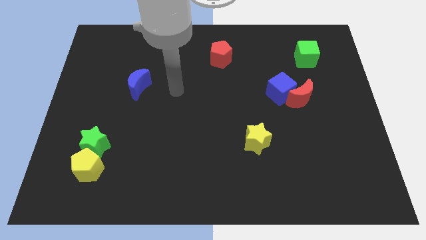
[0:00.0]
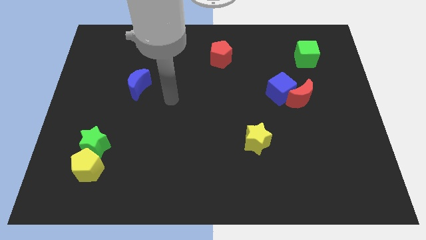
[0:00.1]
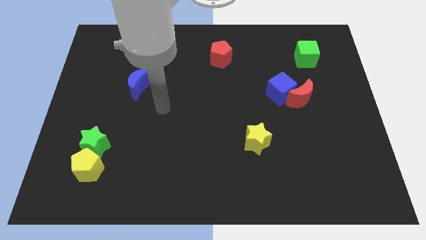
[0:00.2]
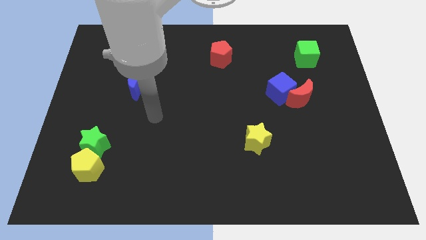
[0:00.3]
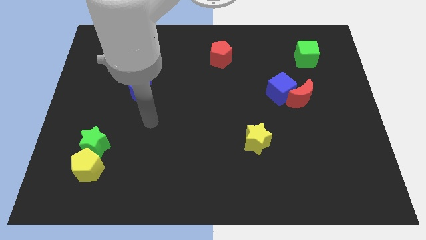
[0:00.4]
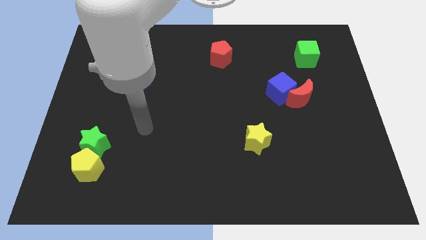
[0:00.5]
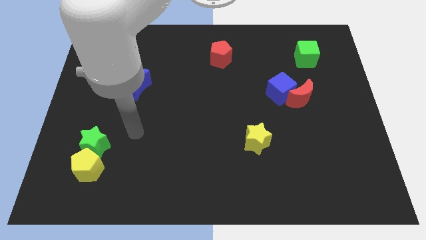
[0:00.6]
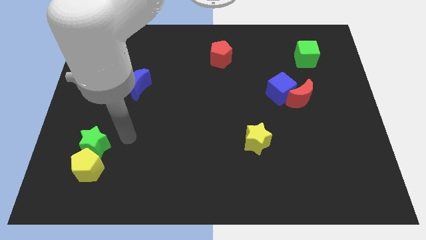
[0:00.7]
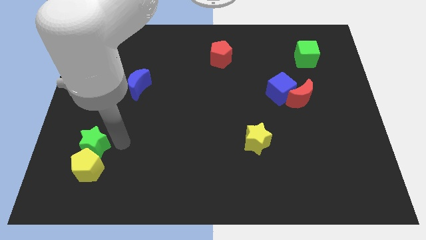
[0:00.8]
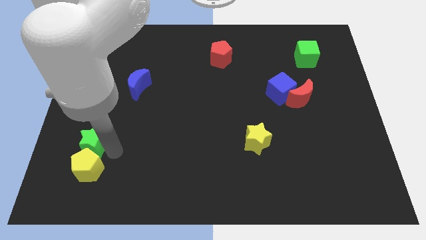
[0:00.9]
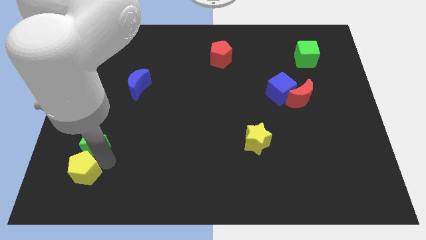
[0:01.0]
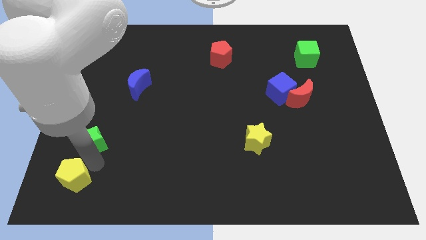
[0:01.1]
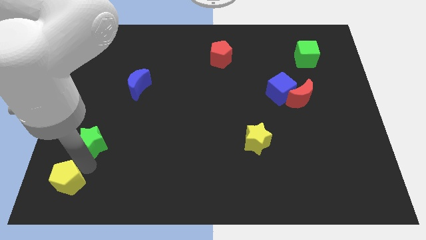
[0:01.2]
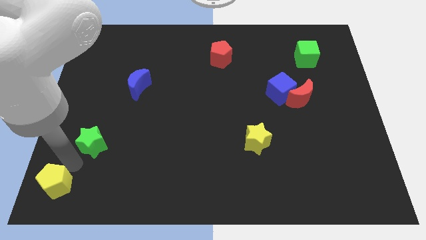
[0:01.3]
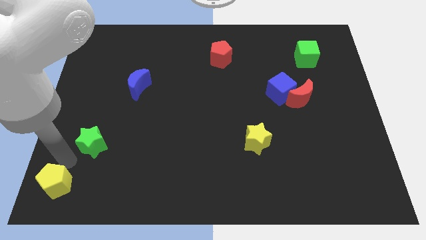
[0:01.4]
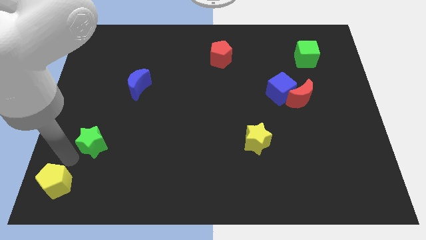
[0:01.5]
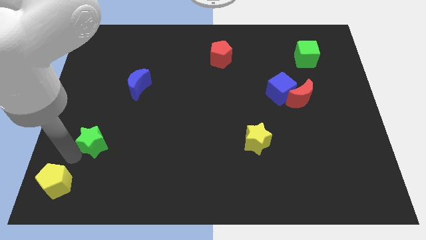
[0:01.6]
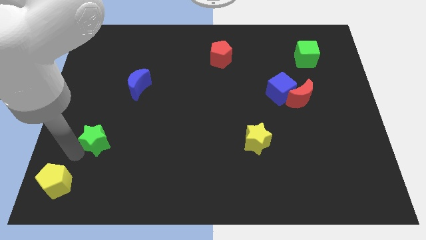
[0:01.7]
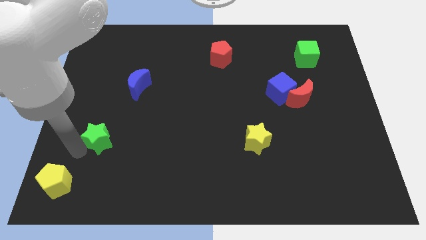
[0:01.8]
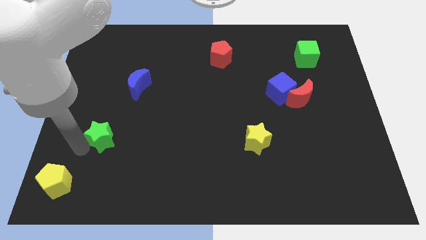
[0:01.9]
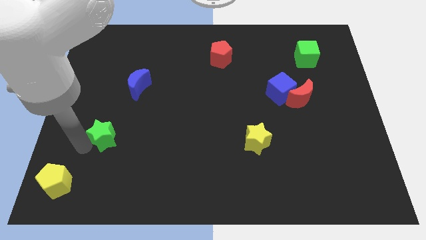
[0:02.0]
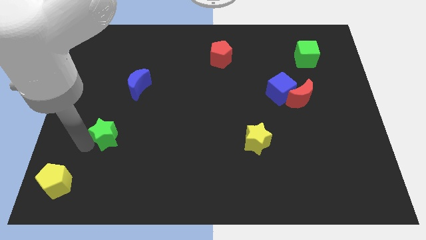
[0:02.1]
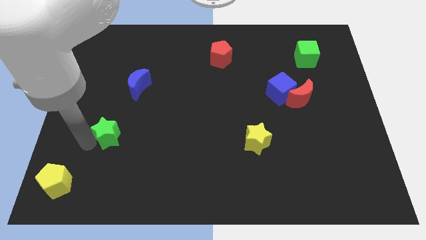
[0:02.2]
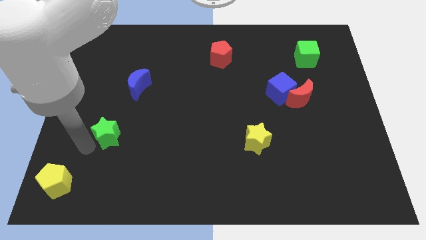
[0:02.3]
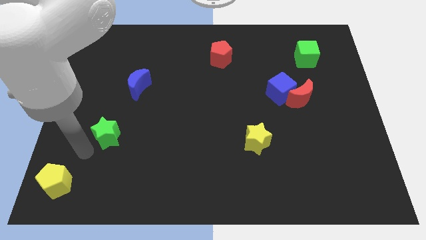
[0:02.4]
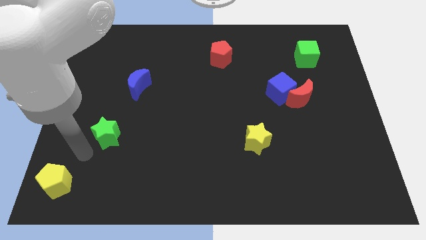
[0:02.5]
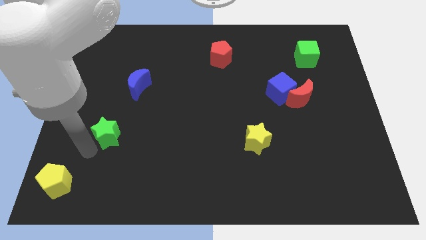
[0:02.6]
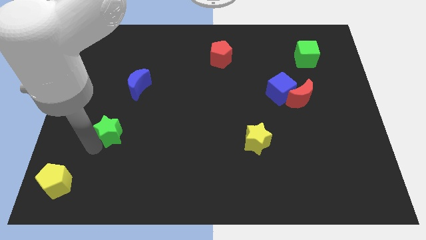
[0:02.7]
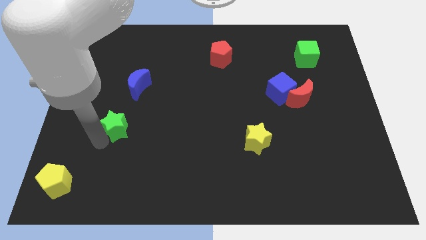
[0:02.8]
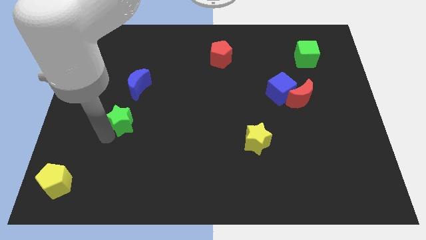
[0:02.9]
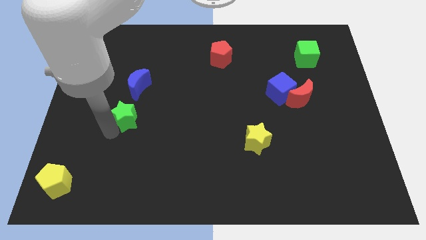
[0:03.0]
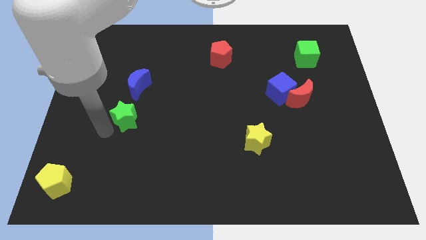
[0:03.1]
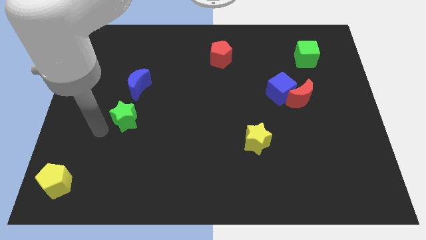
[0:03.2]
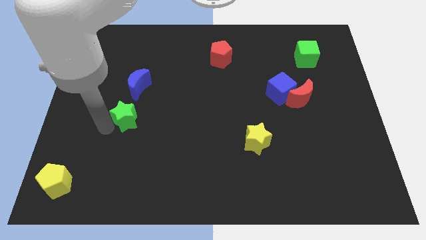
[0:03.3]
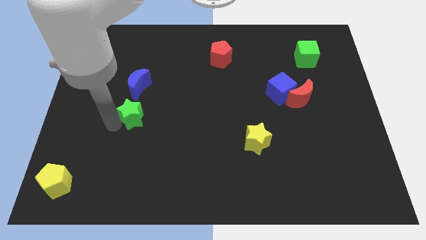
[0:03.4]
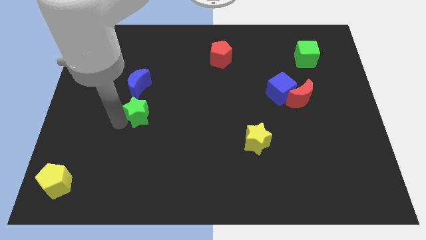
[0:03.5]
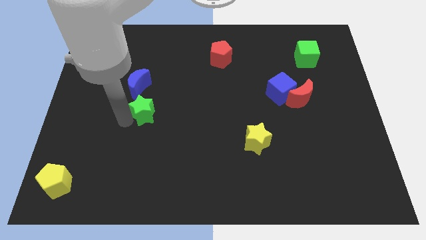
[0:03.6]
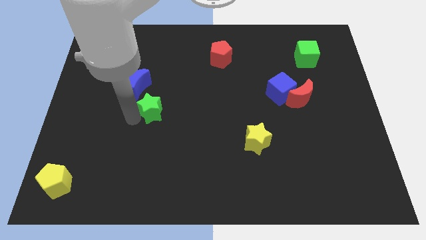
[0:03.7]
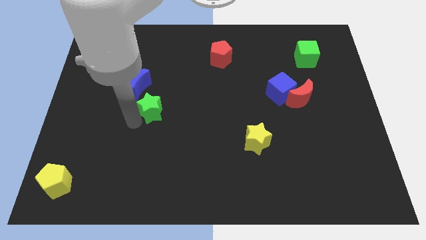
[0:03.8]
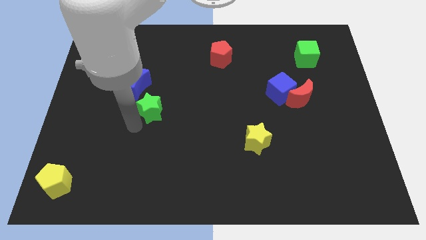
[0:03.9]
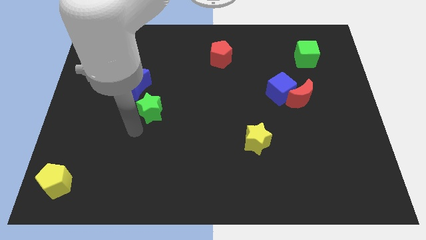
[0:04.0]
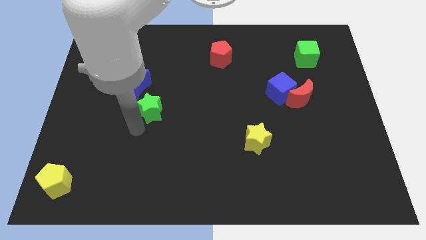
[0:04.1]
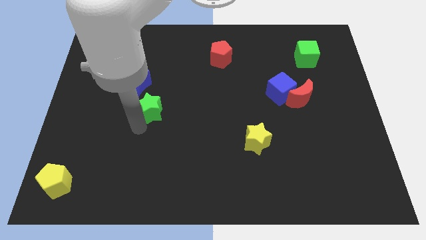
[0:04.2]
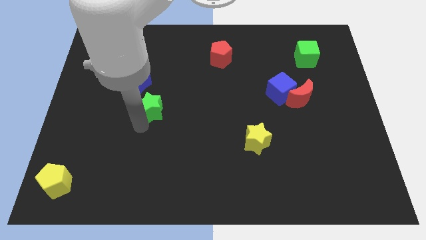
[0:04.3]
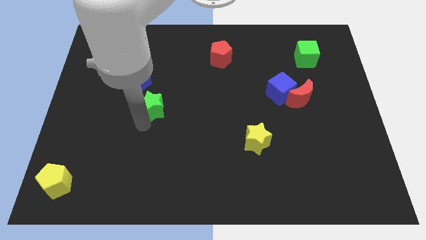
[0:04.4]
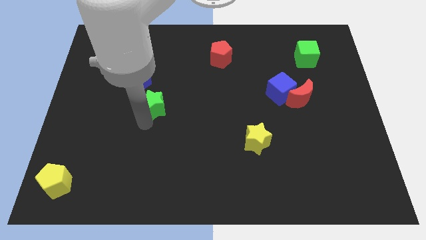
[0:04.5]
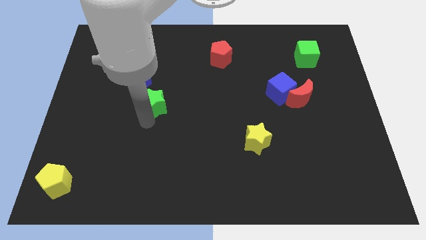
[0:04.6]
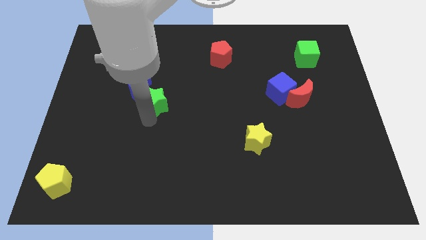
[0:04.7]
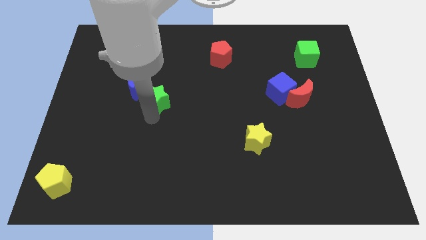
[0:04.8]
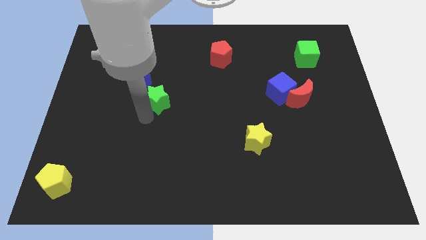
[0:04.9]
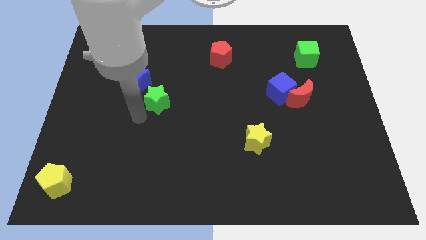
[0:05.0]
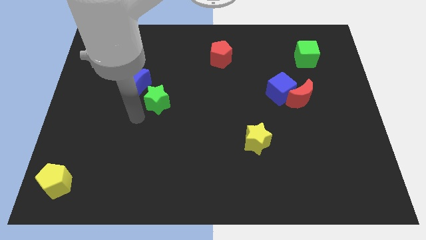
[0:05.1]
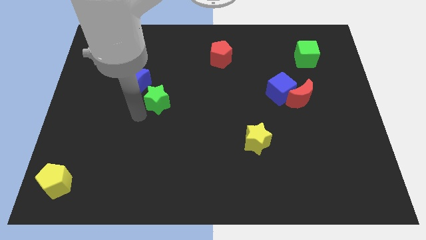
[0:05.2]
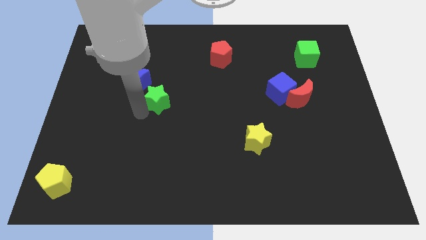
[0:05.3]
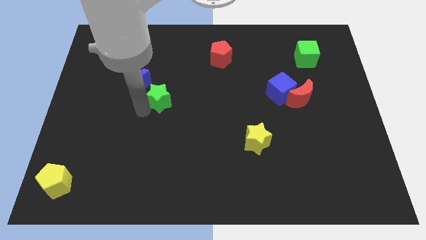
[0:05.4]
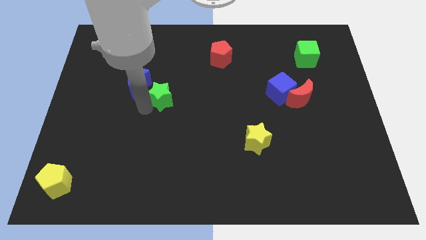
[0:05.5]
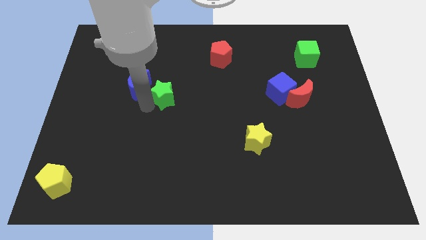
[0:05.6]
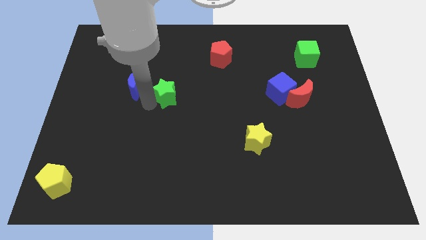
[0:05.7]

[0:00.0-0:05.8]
slide the green star upwards and then to the right

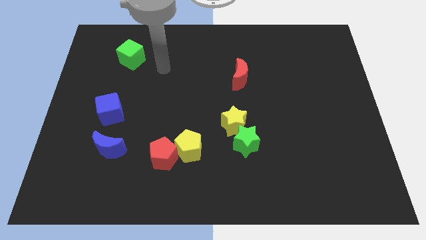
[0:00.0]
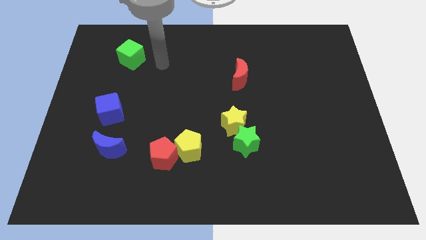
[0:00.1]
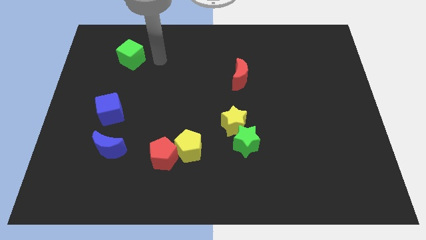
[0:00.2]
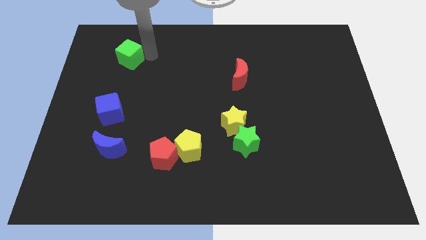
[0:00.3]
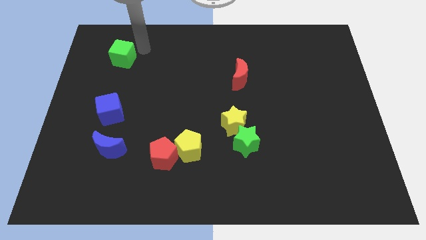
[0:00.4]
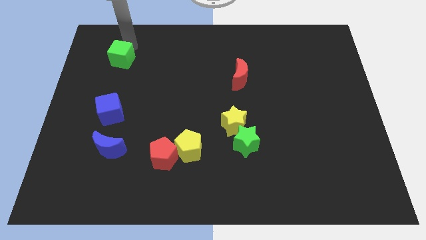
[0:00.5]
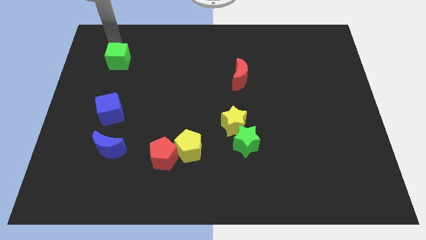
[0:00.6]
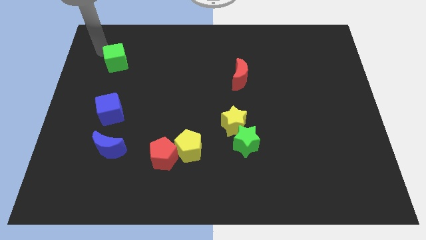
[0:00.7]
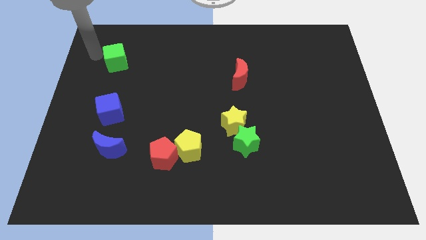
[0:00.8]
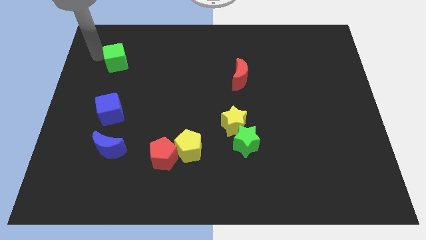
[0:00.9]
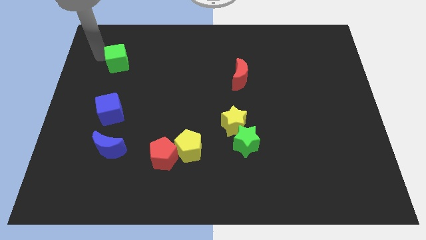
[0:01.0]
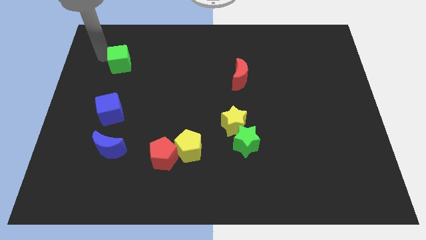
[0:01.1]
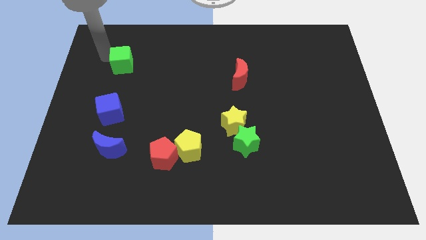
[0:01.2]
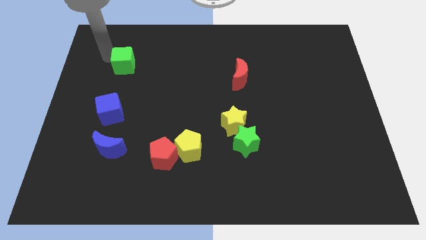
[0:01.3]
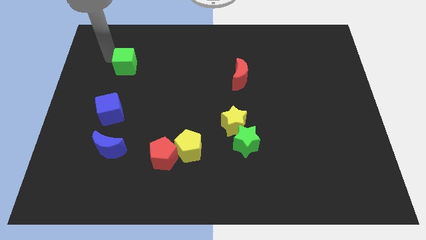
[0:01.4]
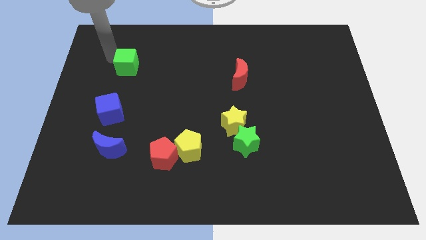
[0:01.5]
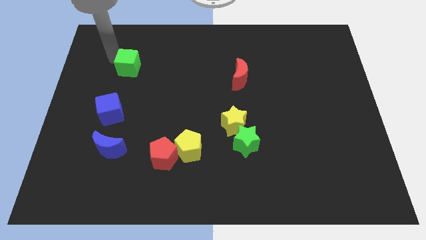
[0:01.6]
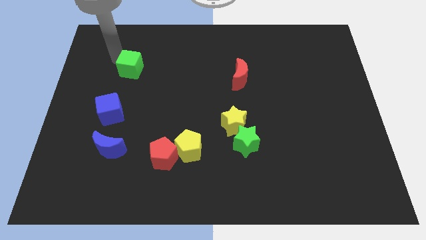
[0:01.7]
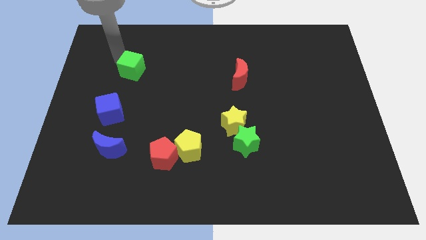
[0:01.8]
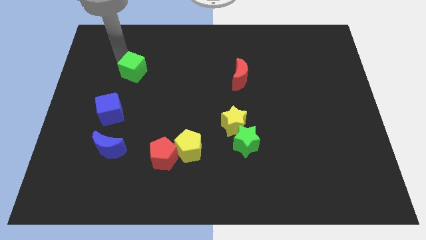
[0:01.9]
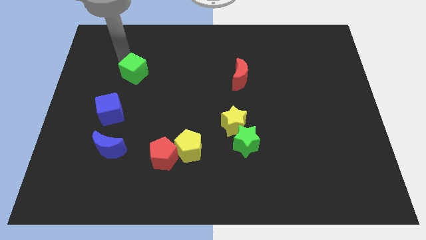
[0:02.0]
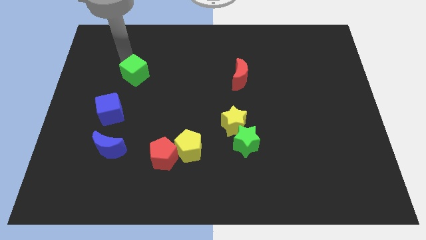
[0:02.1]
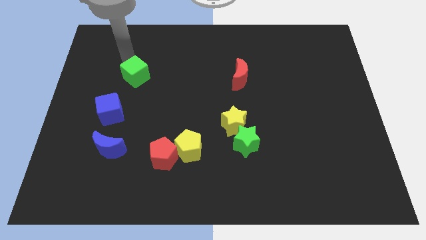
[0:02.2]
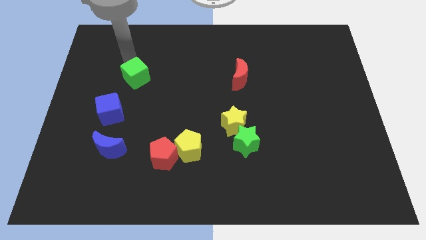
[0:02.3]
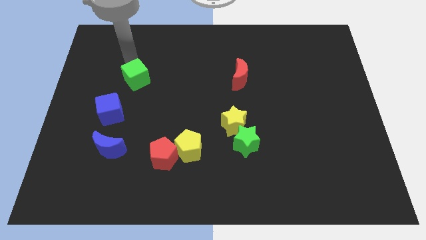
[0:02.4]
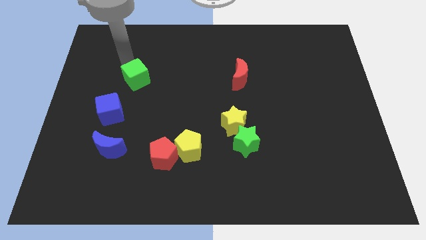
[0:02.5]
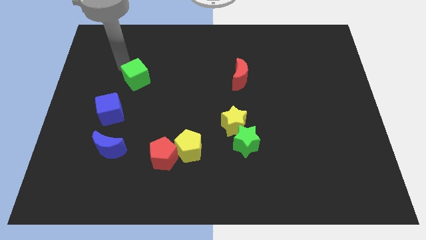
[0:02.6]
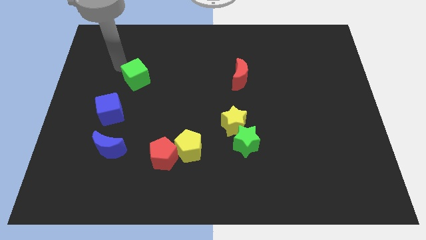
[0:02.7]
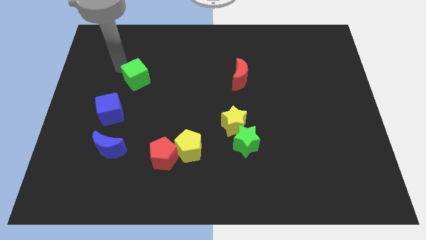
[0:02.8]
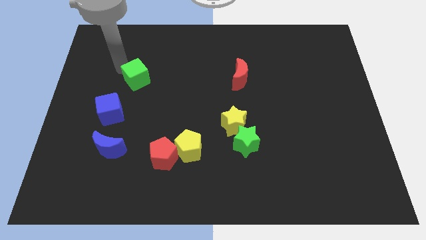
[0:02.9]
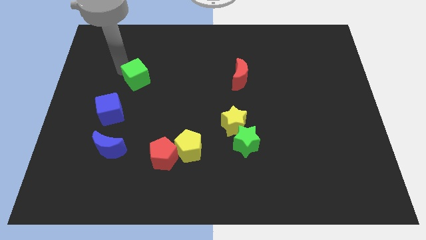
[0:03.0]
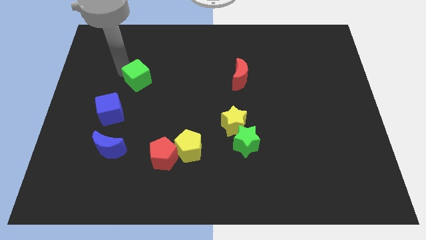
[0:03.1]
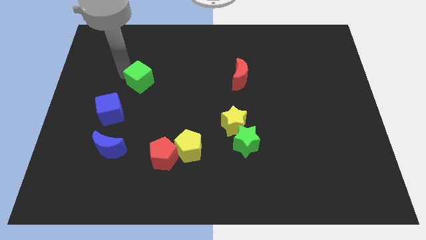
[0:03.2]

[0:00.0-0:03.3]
slightly push the green cube down and right diagonally
